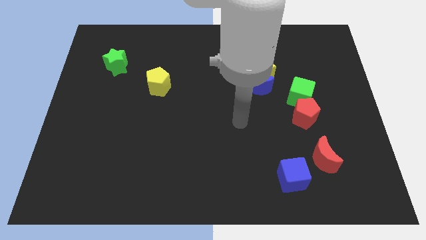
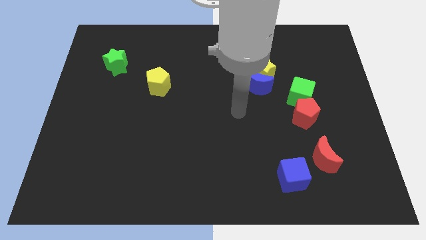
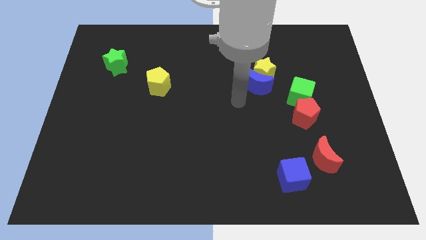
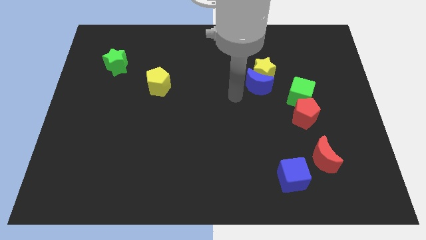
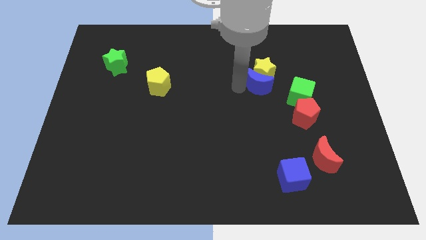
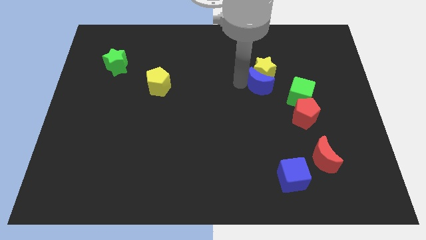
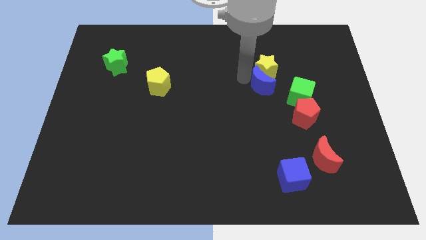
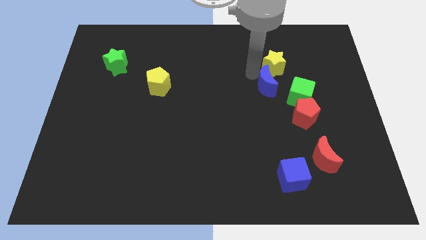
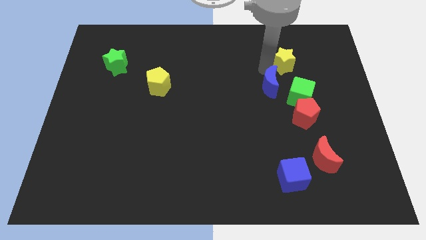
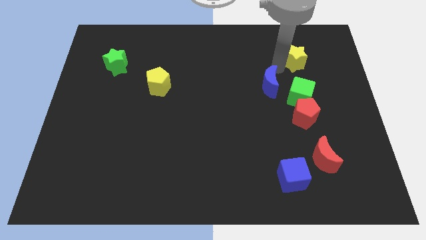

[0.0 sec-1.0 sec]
move the blue moon away from the yellow star

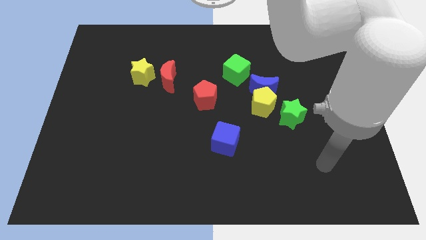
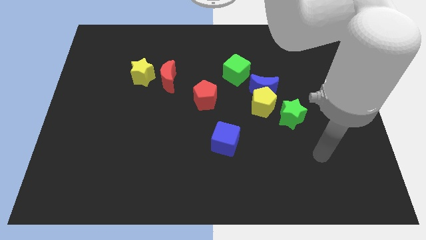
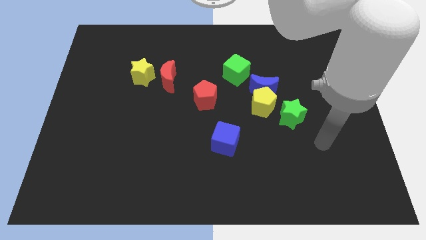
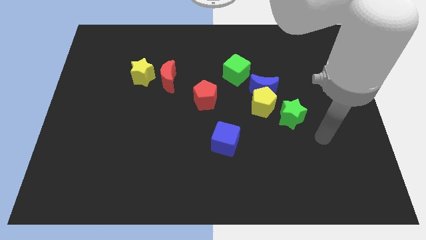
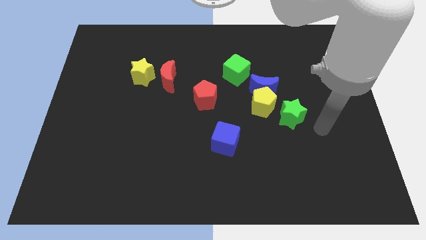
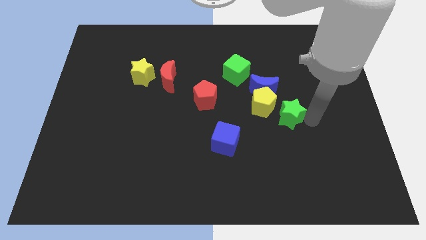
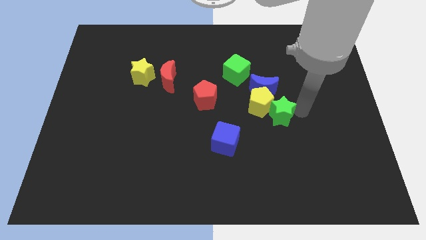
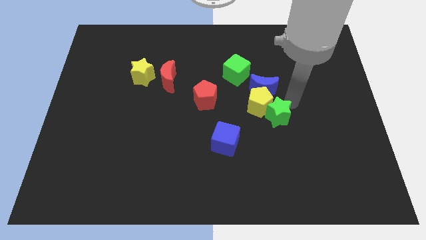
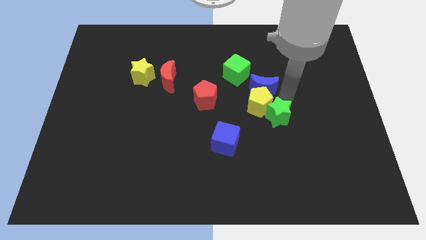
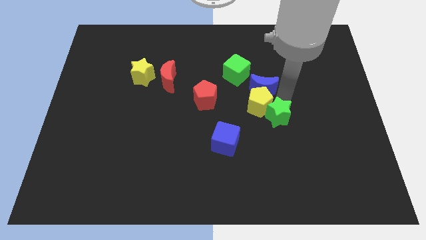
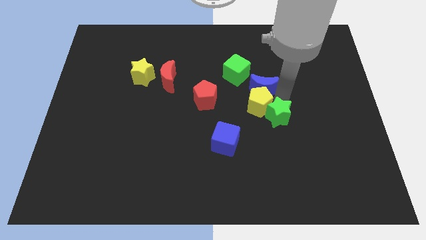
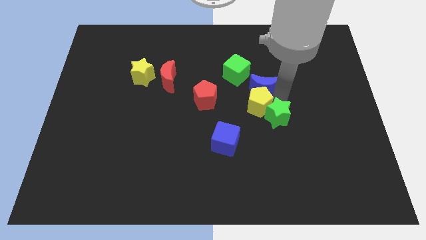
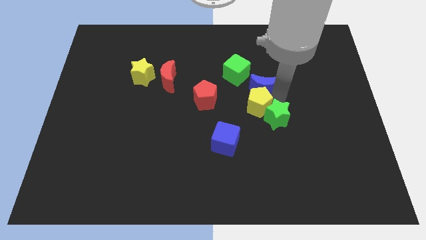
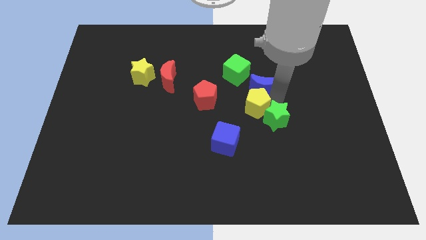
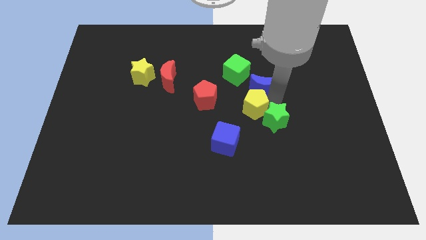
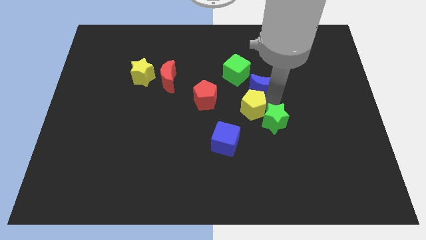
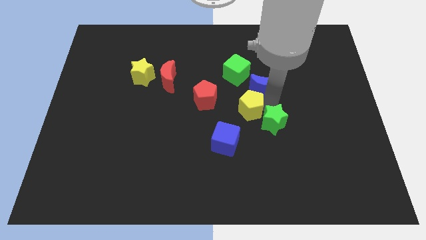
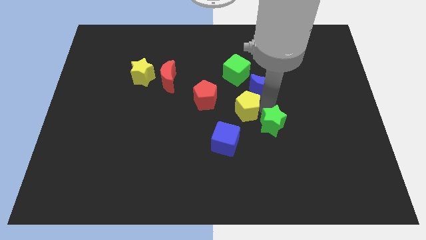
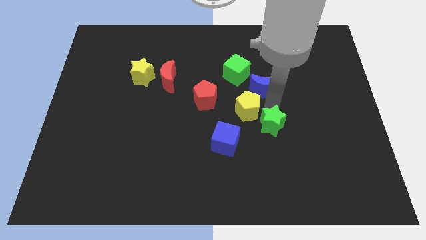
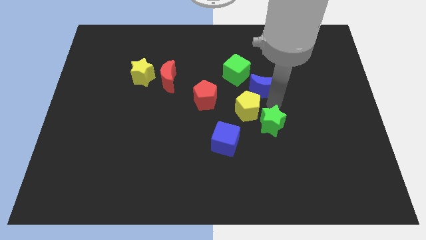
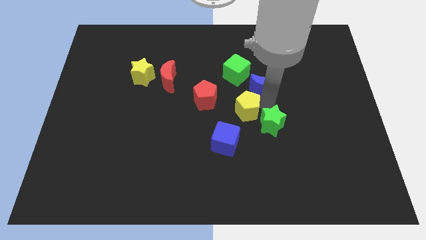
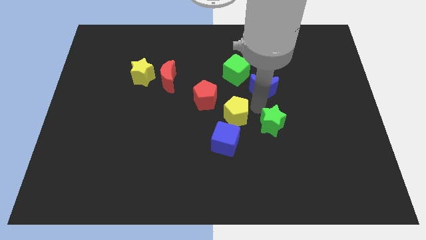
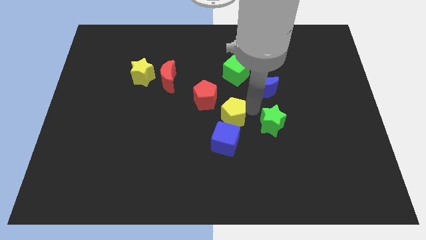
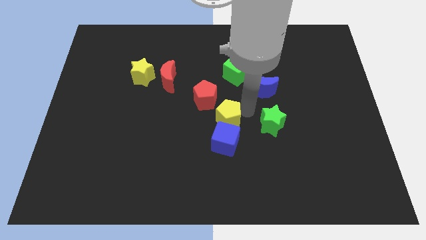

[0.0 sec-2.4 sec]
separate the yellow pentagon from the blue moon and green star

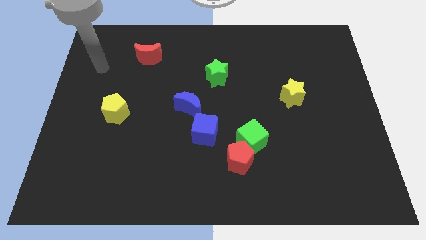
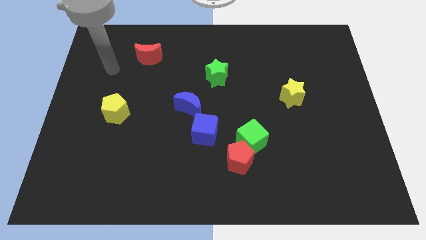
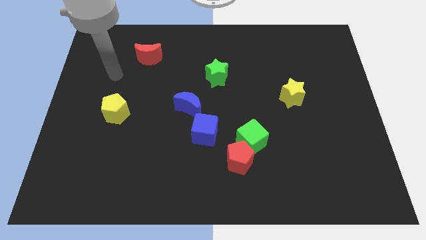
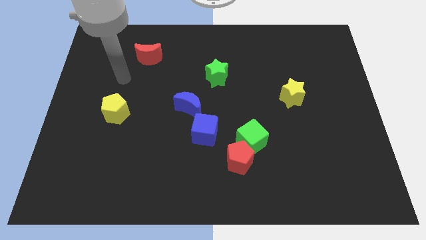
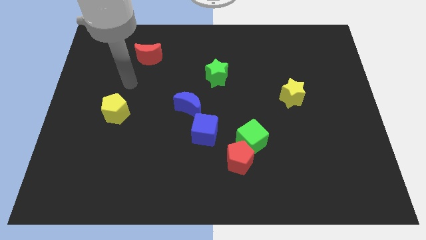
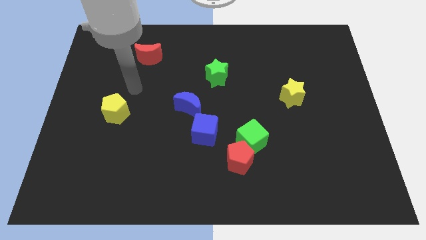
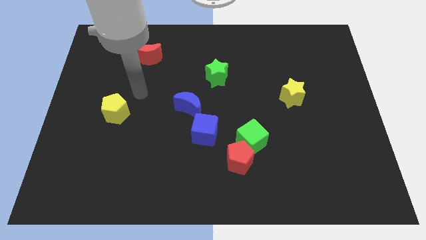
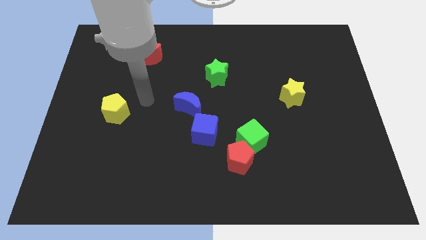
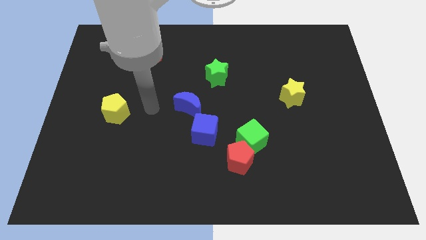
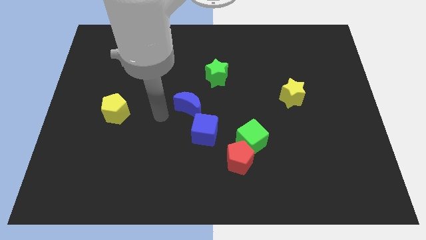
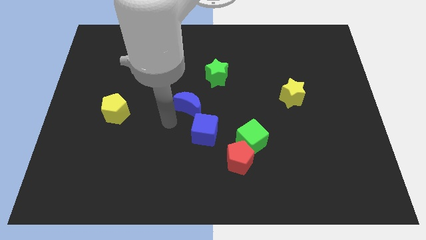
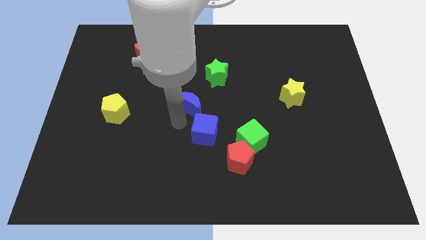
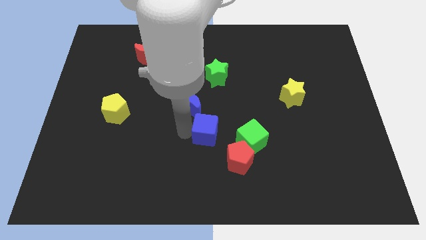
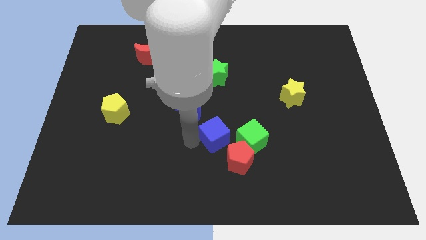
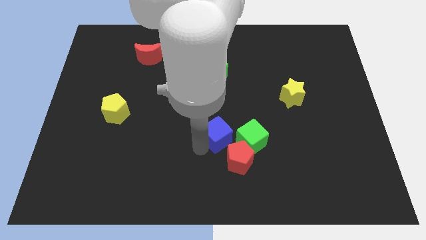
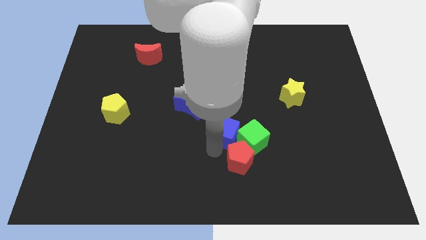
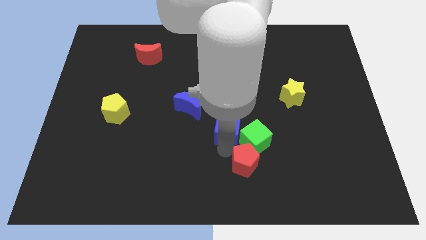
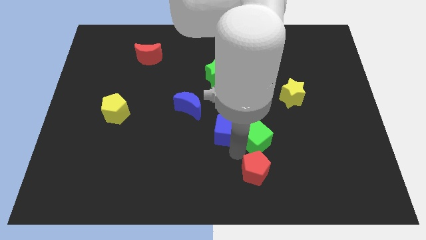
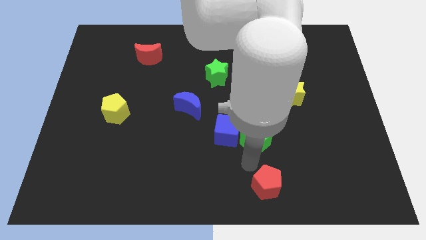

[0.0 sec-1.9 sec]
pull the green cube apart from the red pentagon

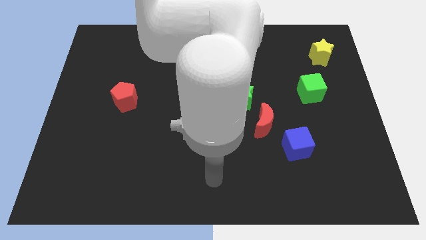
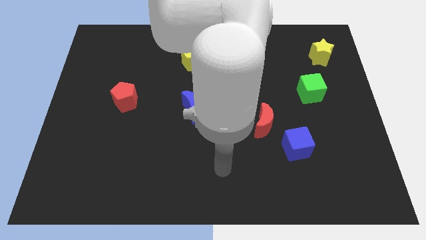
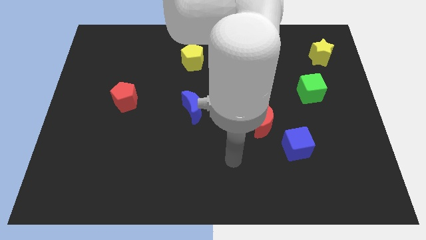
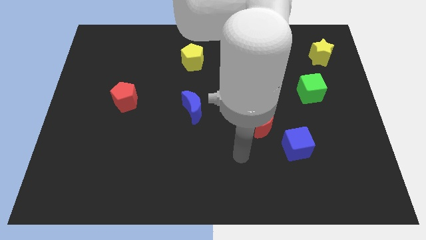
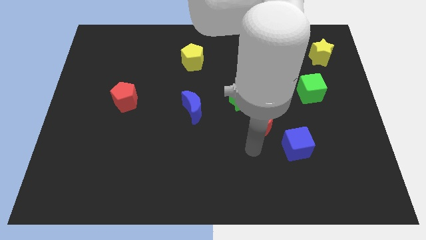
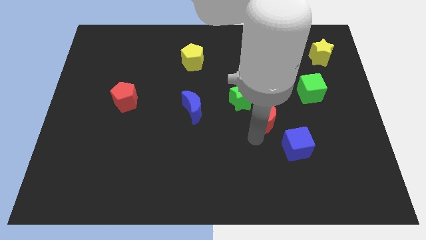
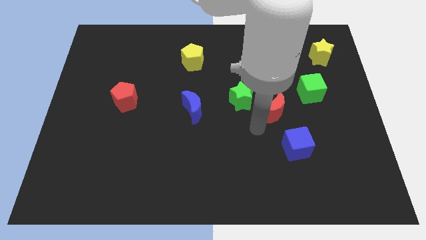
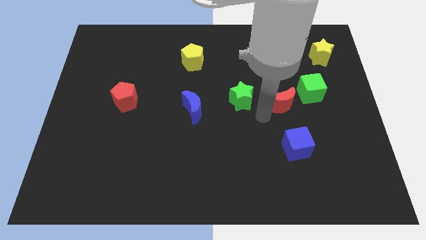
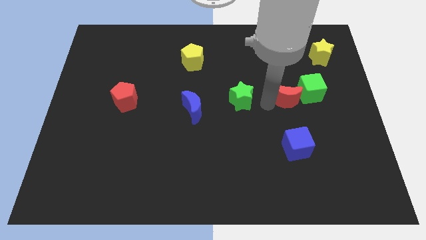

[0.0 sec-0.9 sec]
move the green star away from the red moon

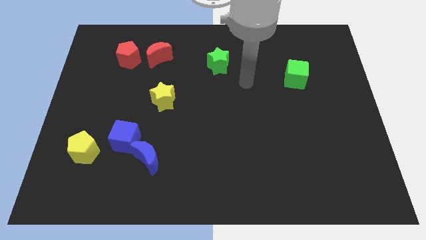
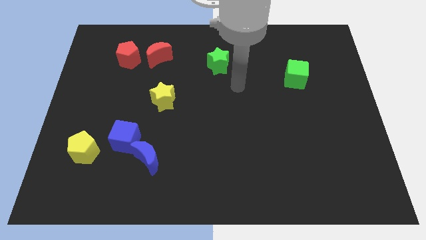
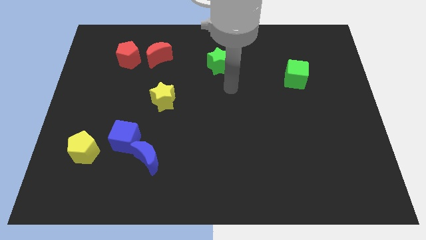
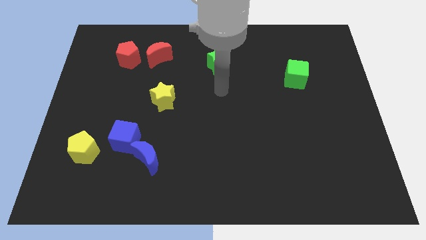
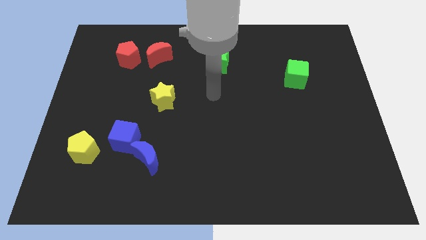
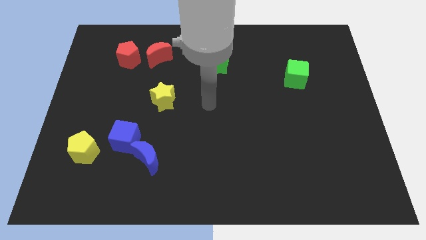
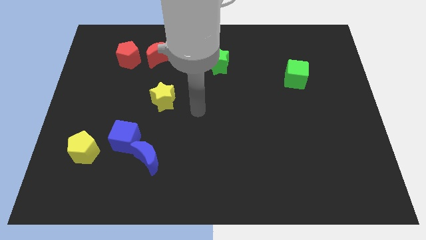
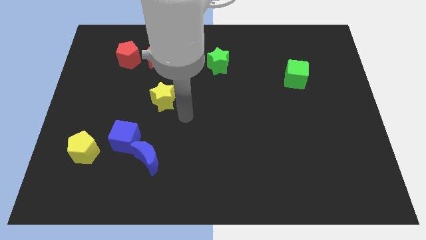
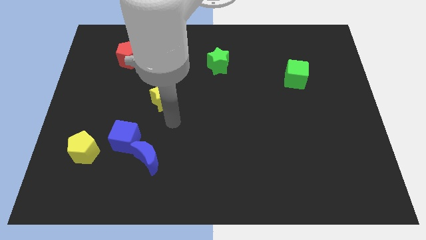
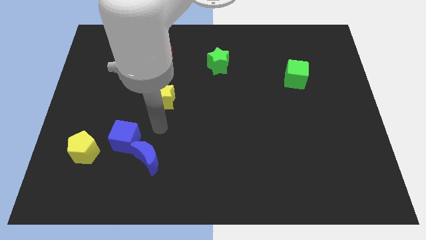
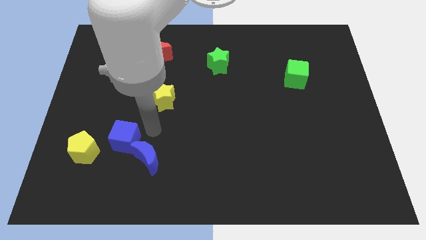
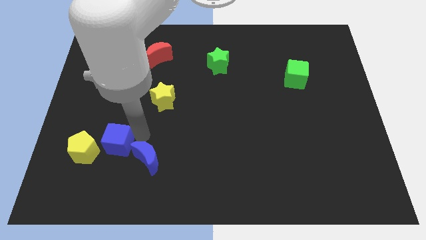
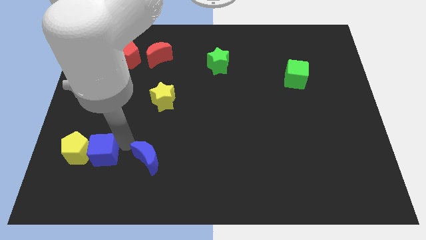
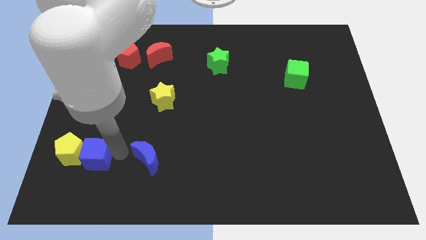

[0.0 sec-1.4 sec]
separate the blue moon from the blue cube

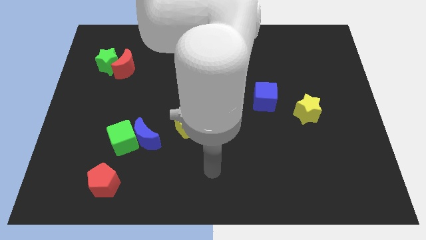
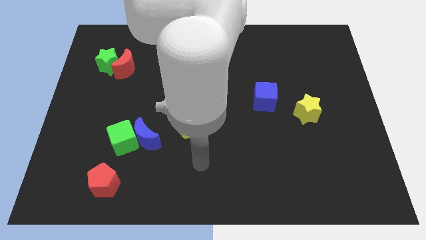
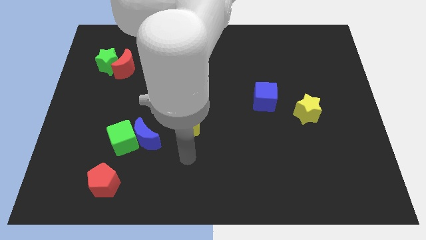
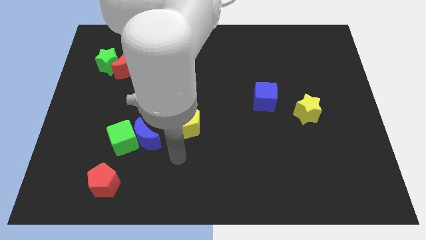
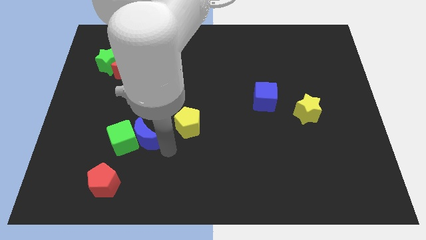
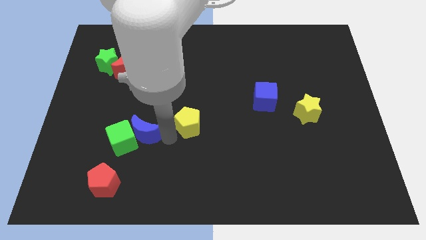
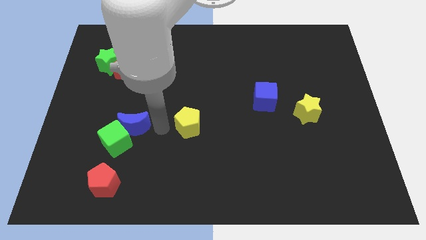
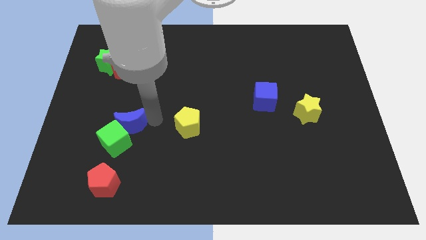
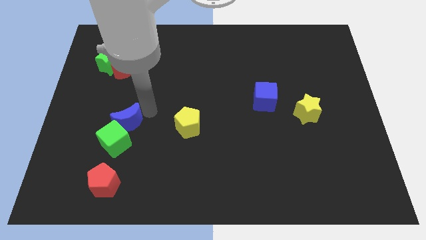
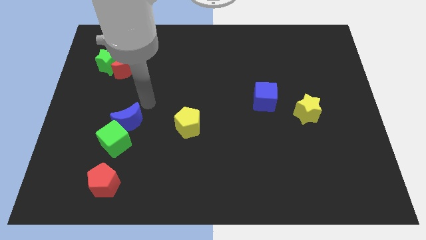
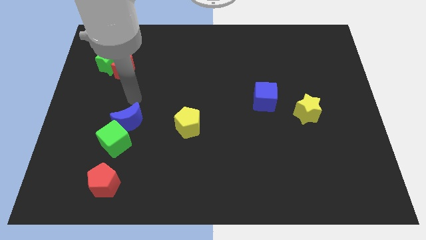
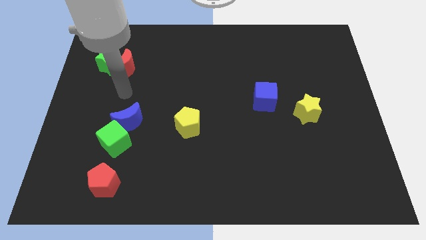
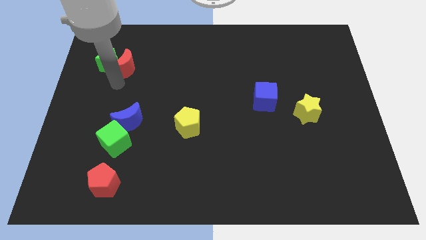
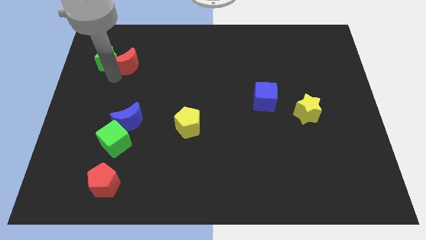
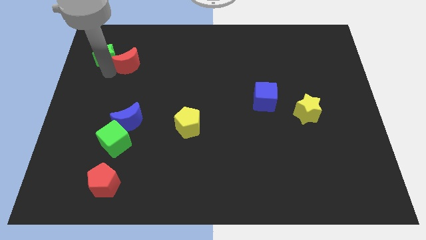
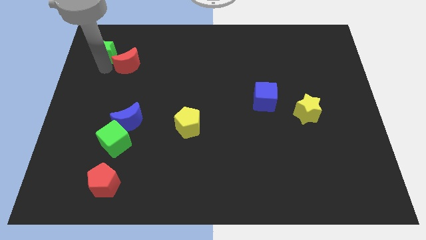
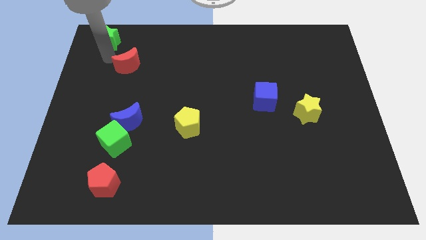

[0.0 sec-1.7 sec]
pull the red moon apart from the green star

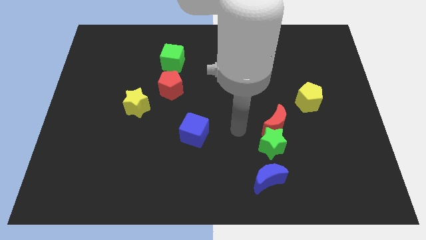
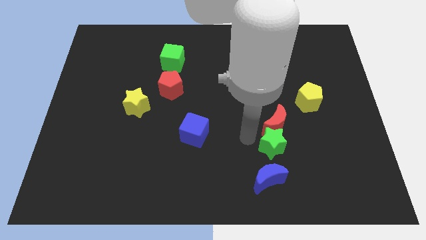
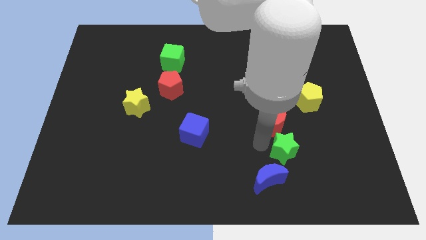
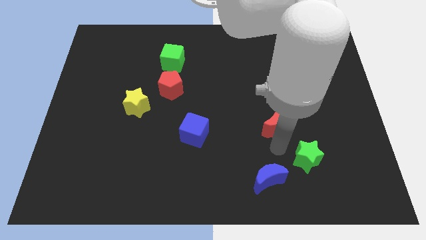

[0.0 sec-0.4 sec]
separate the red moon from the green star
